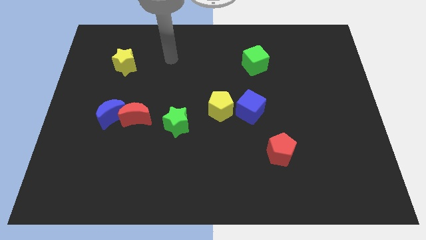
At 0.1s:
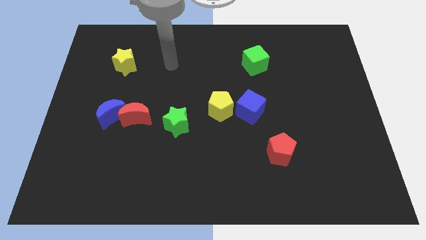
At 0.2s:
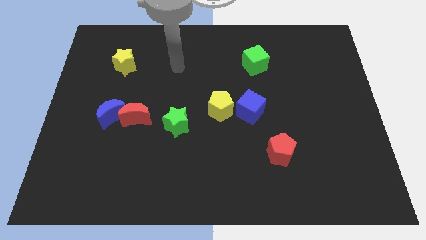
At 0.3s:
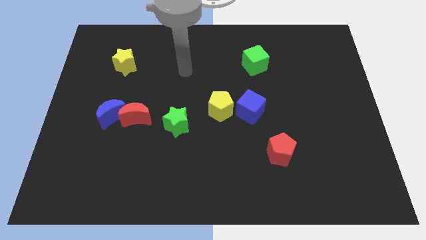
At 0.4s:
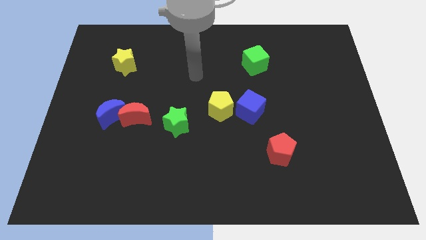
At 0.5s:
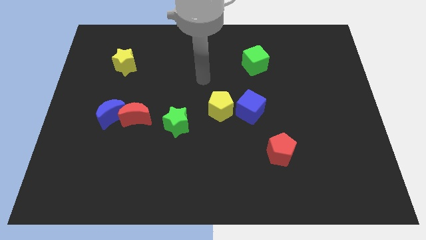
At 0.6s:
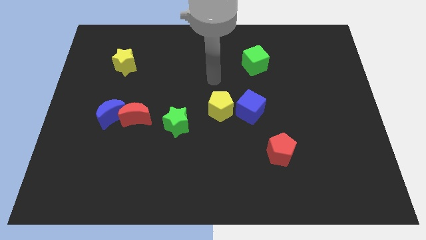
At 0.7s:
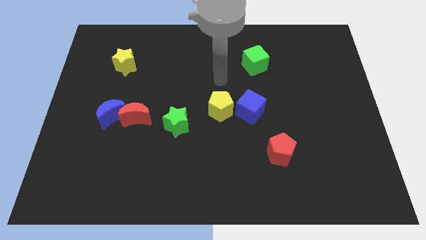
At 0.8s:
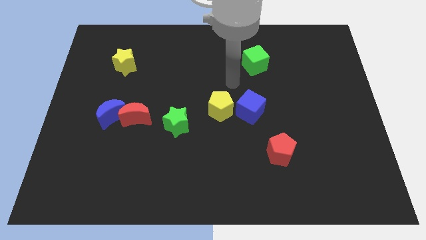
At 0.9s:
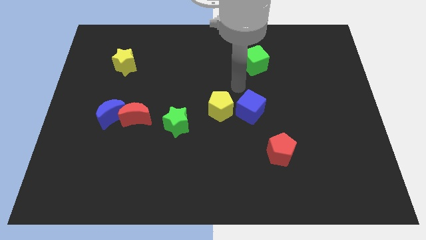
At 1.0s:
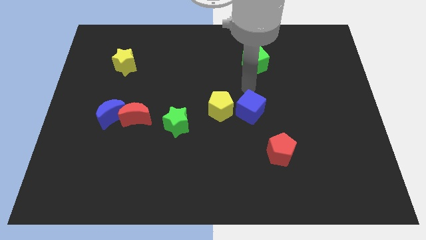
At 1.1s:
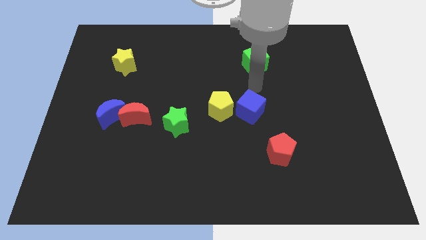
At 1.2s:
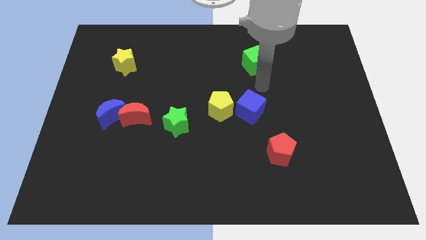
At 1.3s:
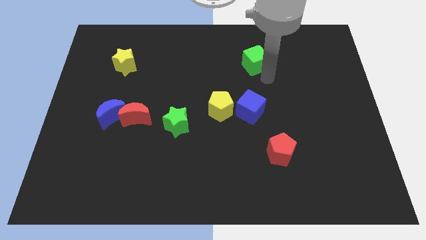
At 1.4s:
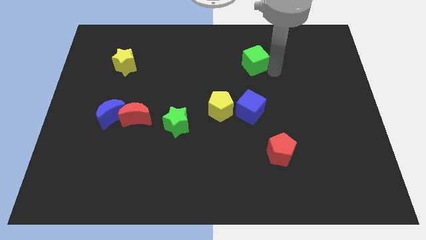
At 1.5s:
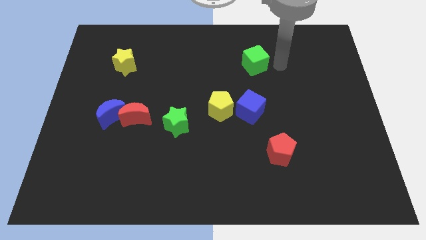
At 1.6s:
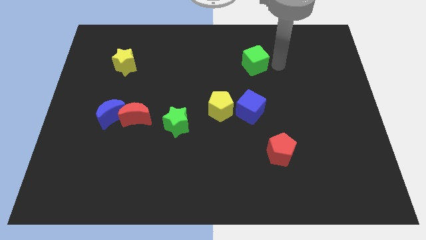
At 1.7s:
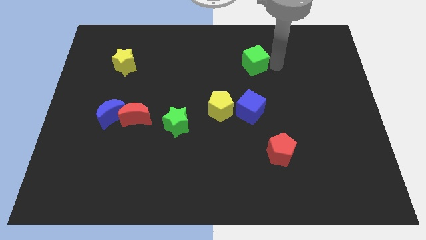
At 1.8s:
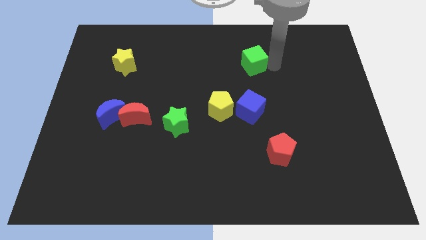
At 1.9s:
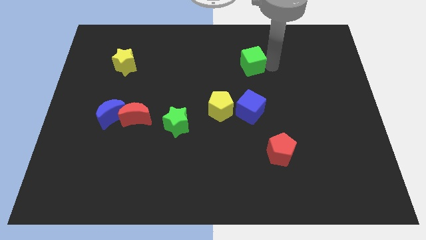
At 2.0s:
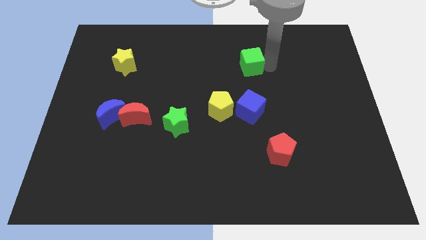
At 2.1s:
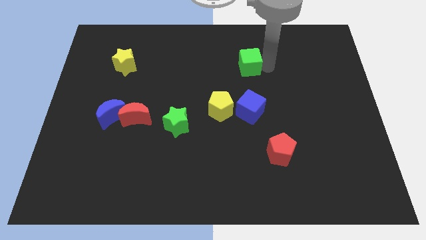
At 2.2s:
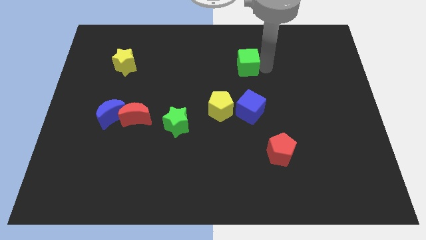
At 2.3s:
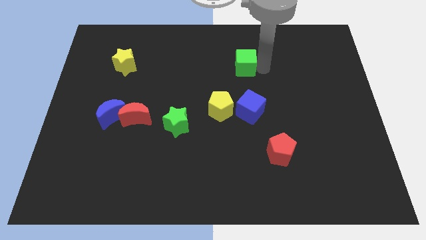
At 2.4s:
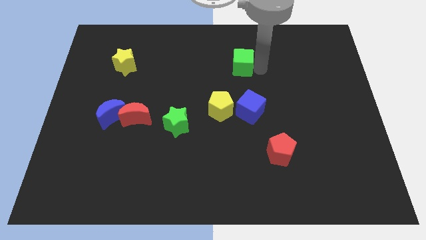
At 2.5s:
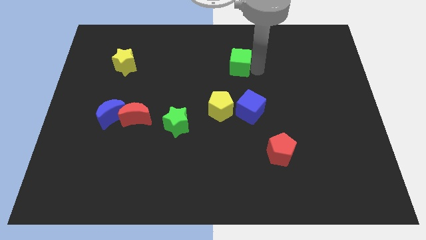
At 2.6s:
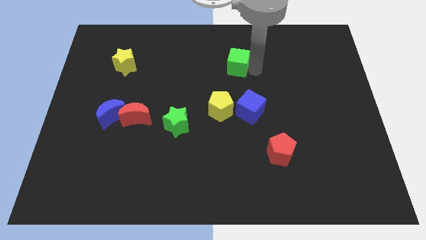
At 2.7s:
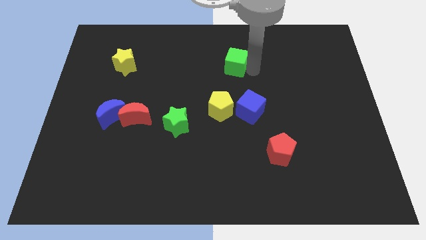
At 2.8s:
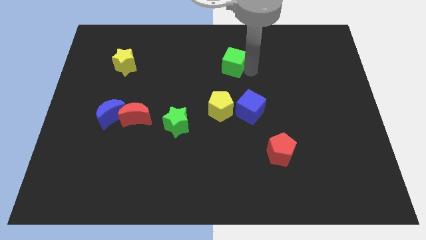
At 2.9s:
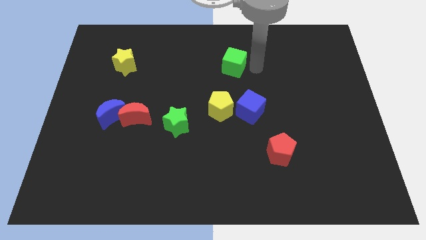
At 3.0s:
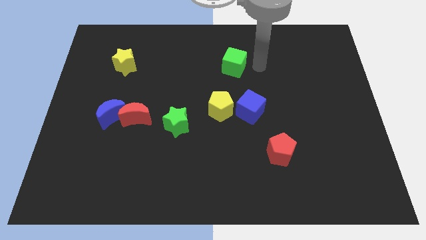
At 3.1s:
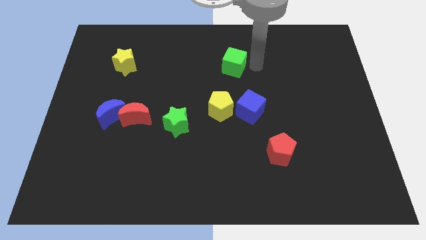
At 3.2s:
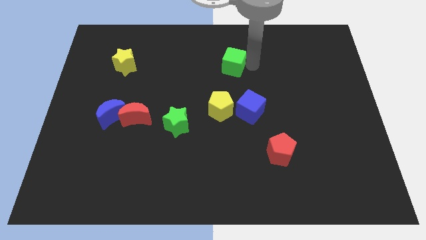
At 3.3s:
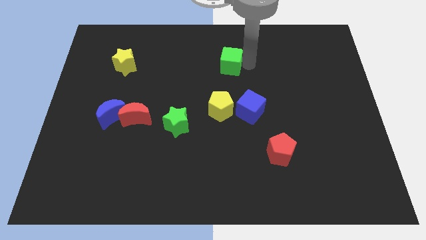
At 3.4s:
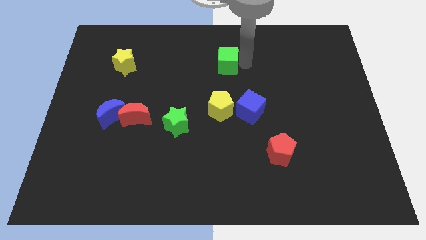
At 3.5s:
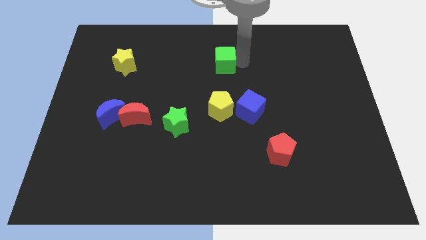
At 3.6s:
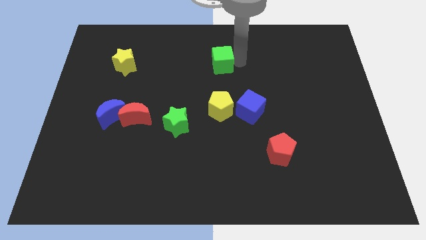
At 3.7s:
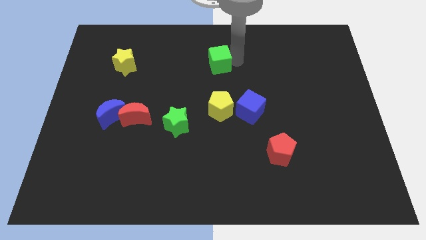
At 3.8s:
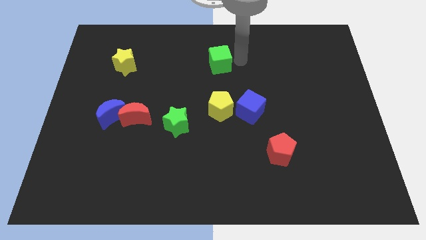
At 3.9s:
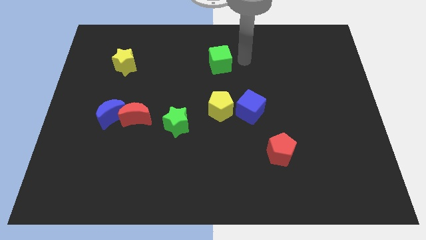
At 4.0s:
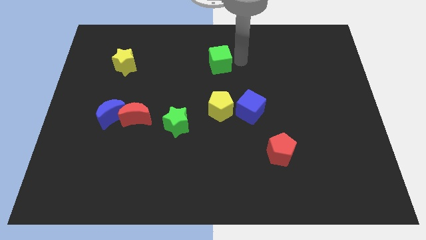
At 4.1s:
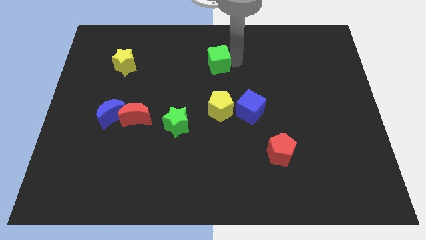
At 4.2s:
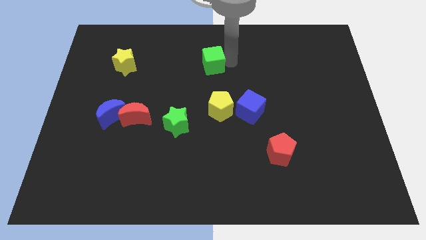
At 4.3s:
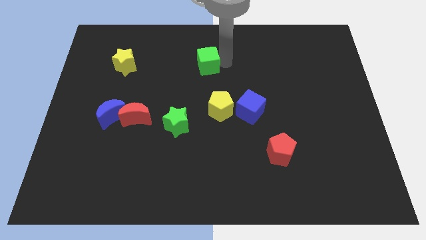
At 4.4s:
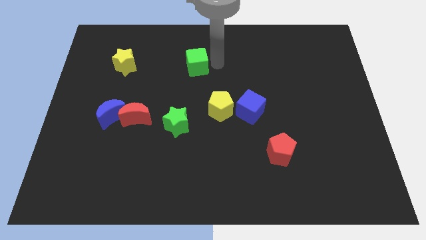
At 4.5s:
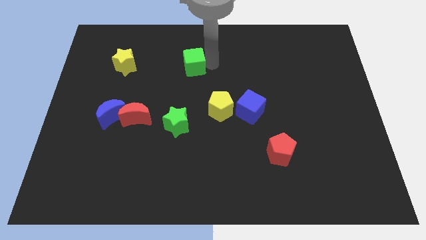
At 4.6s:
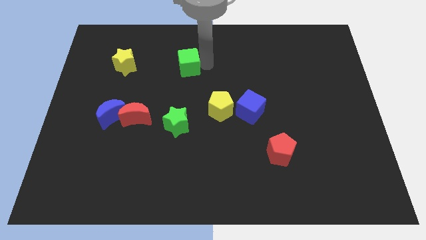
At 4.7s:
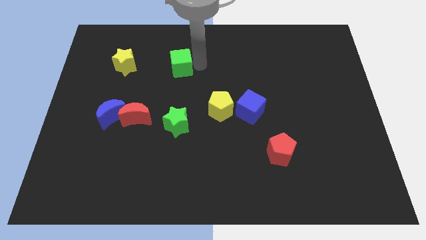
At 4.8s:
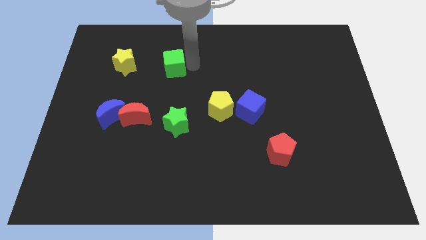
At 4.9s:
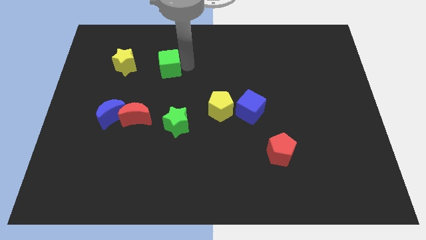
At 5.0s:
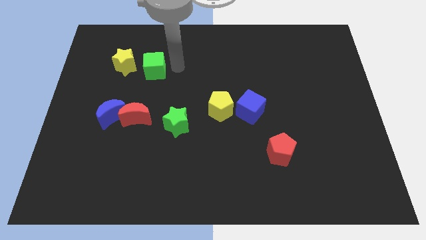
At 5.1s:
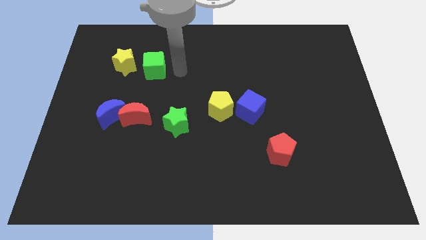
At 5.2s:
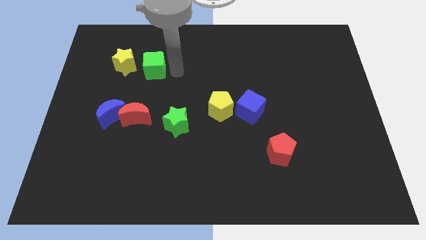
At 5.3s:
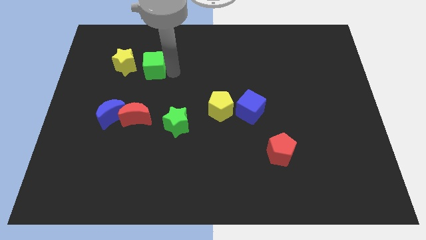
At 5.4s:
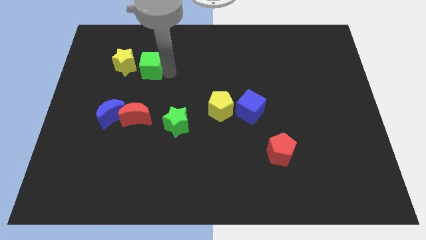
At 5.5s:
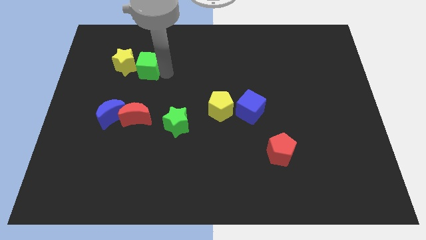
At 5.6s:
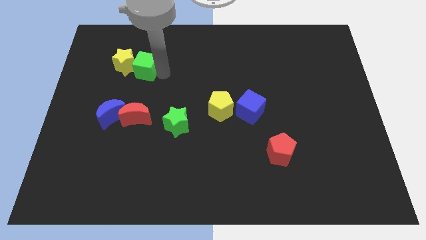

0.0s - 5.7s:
move the green cube next to the yellow star

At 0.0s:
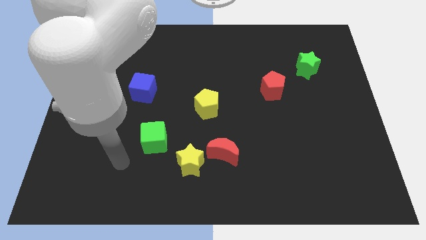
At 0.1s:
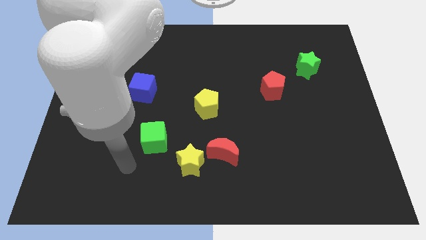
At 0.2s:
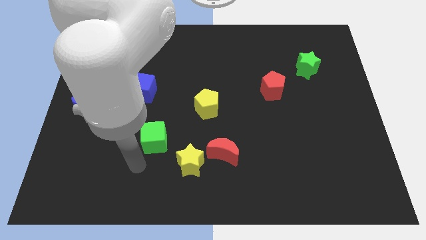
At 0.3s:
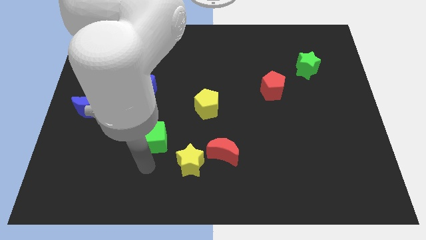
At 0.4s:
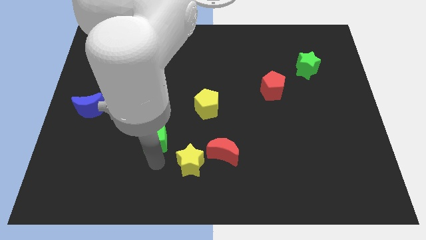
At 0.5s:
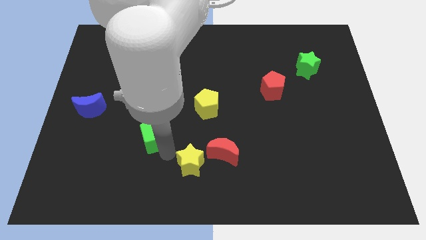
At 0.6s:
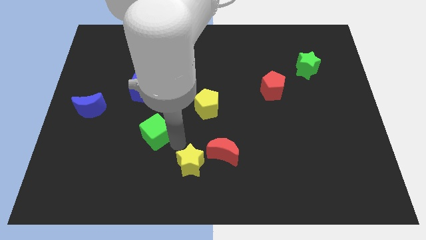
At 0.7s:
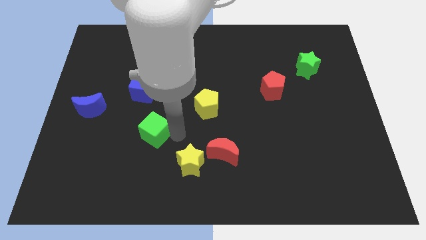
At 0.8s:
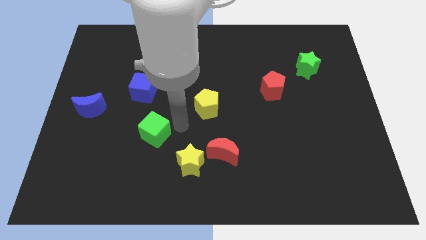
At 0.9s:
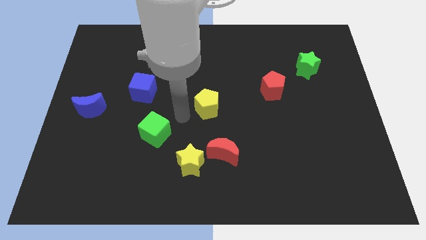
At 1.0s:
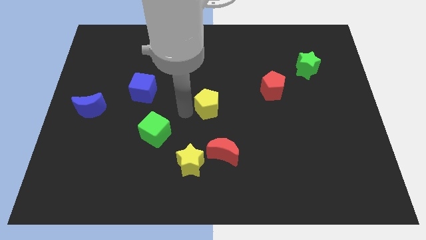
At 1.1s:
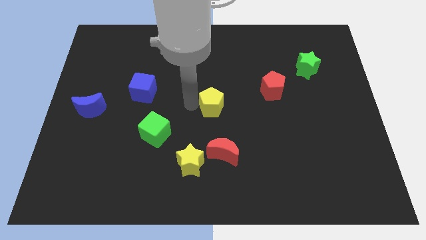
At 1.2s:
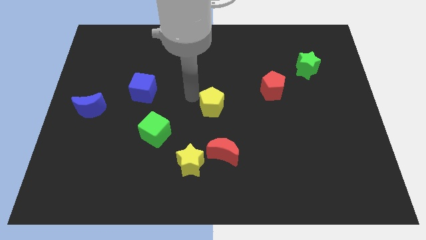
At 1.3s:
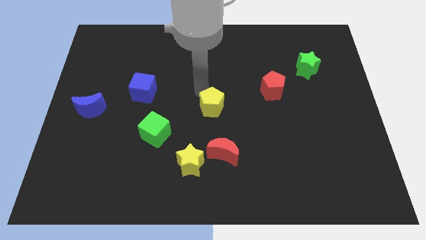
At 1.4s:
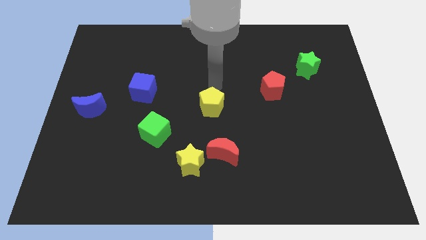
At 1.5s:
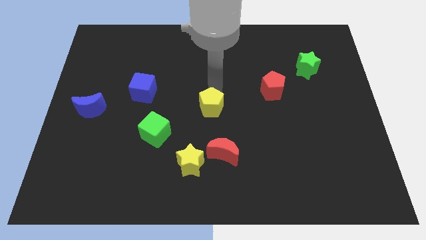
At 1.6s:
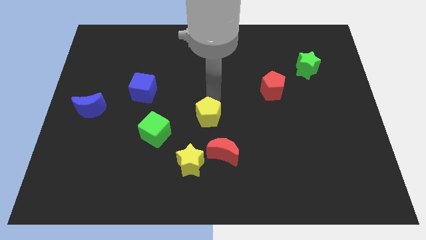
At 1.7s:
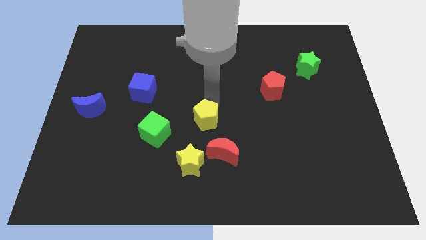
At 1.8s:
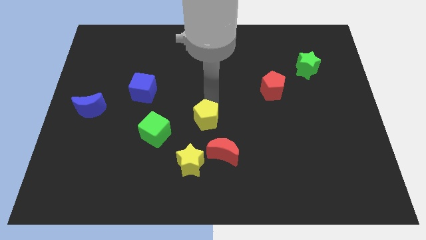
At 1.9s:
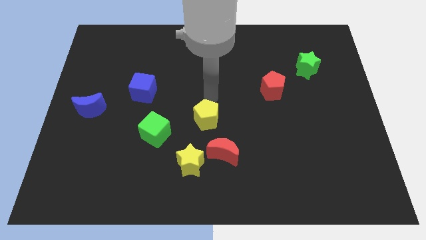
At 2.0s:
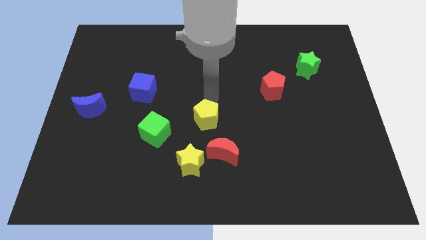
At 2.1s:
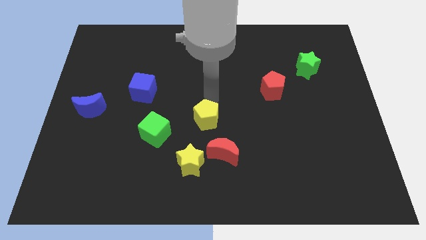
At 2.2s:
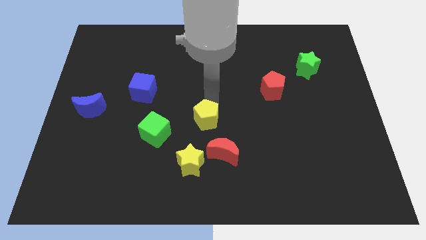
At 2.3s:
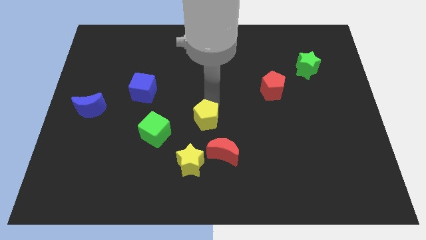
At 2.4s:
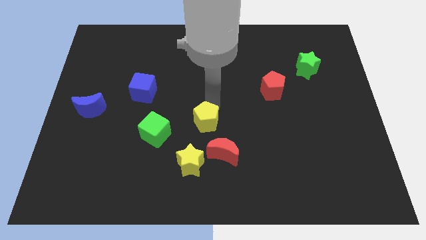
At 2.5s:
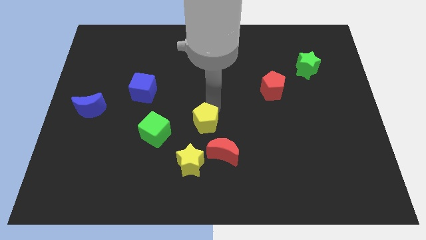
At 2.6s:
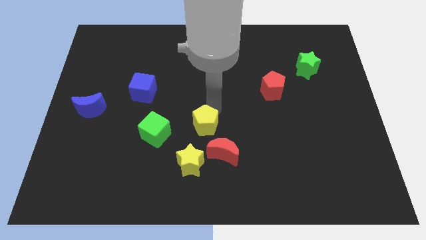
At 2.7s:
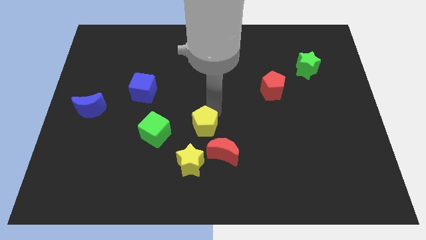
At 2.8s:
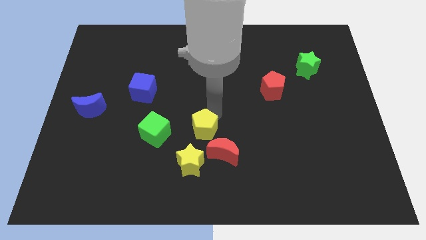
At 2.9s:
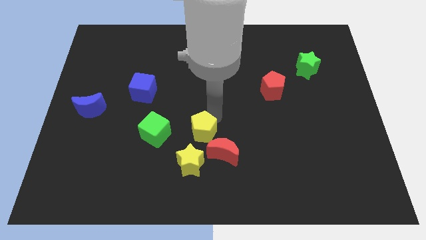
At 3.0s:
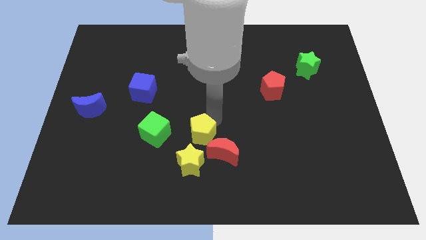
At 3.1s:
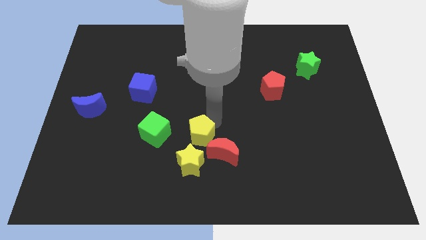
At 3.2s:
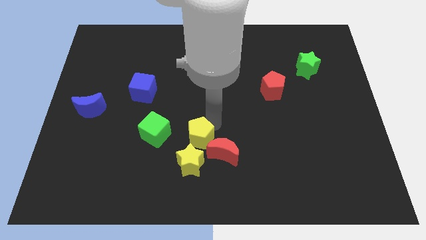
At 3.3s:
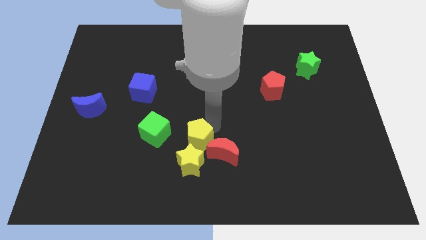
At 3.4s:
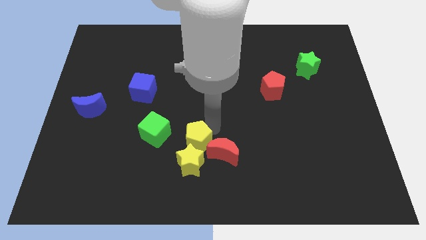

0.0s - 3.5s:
push the yellow pentagon towards the yellow star
